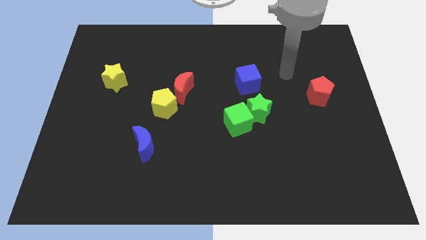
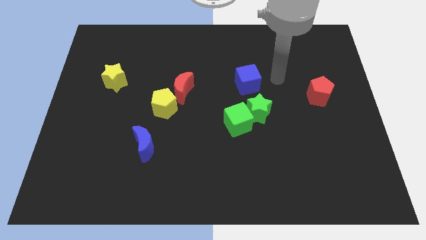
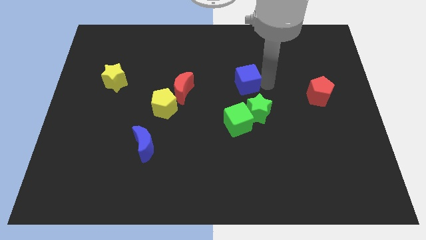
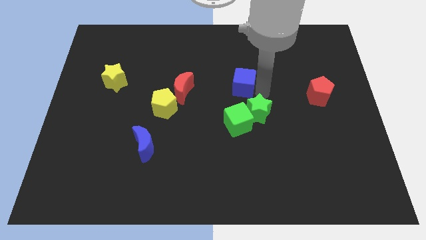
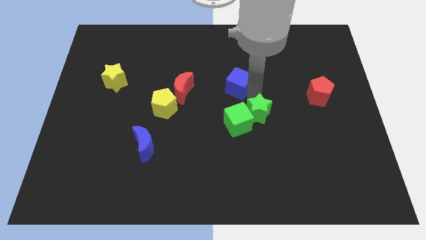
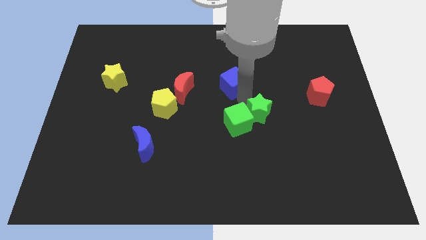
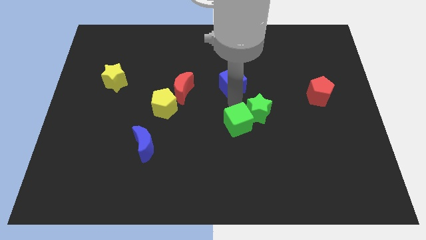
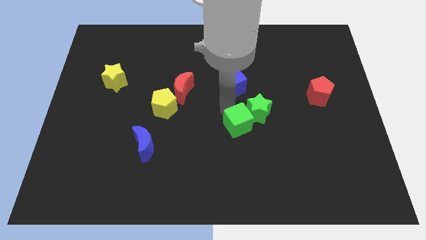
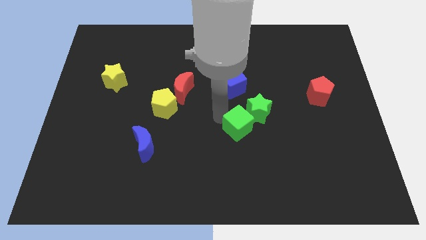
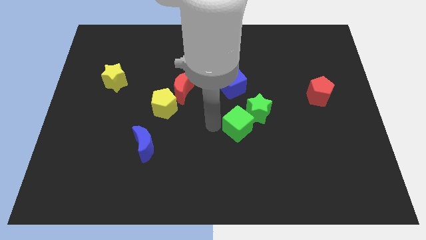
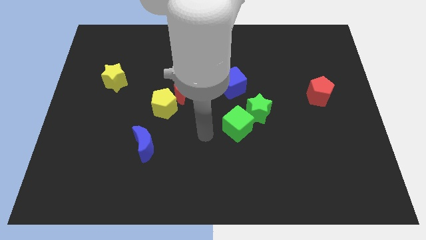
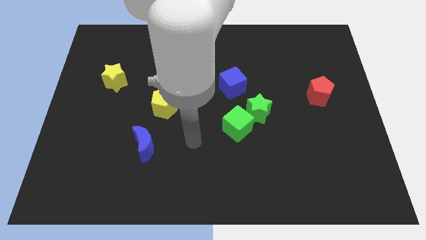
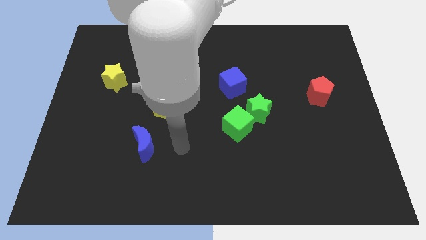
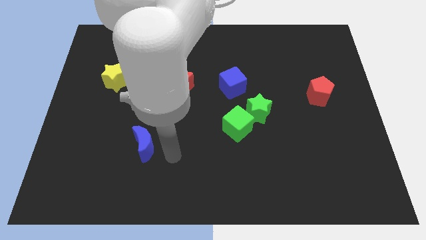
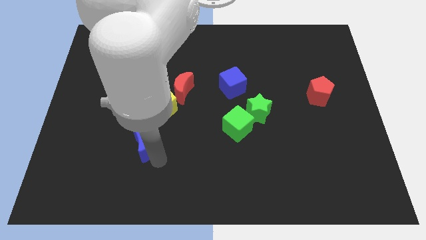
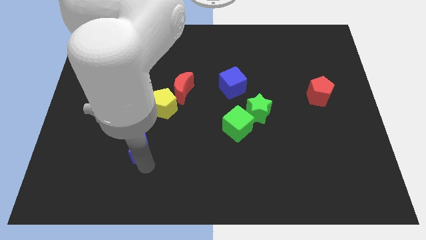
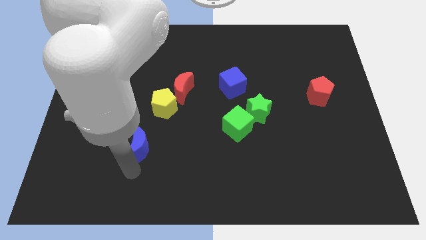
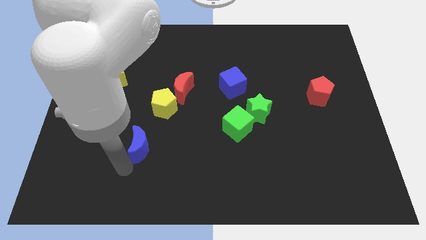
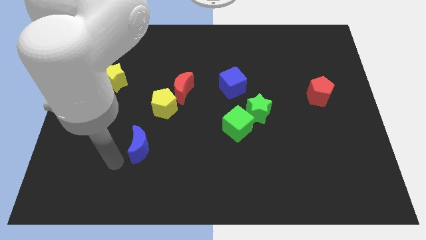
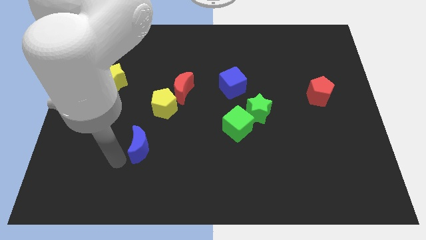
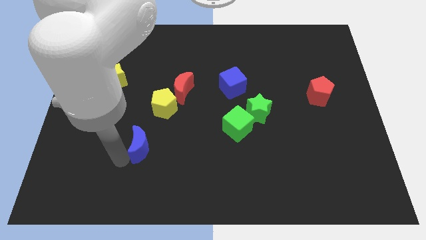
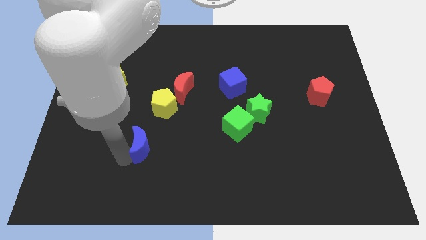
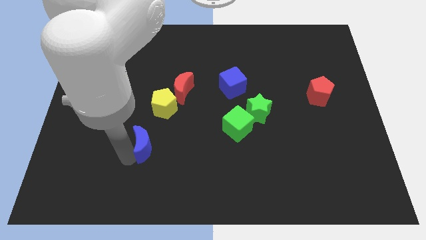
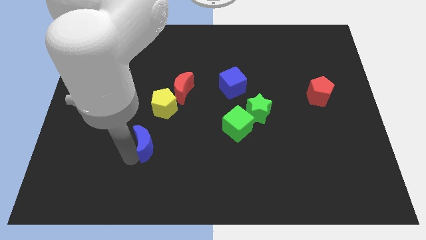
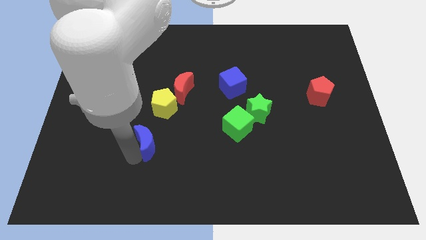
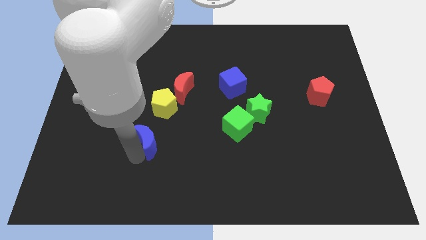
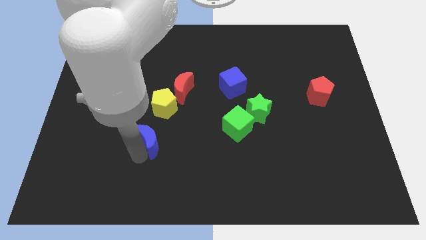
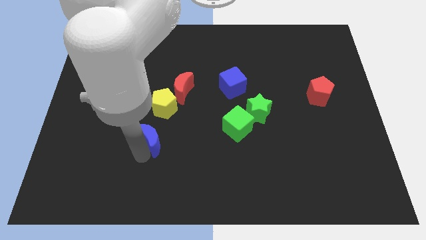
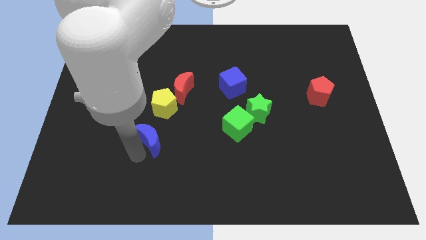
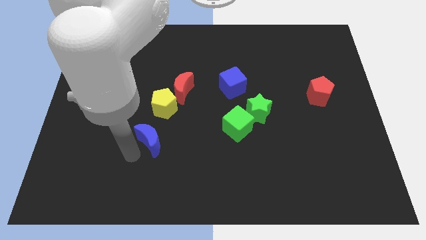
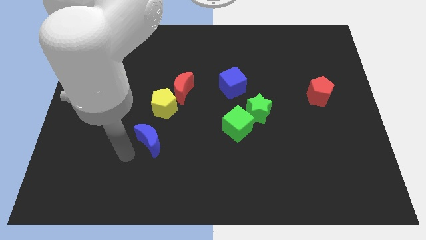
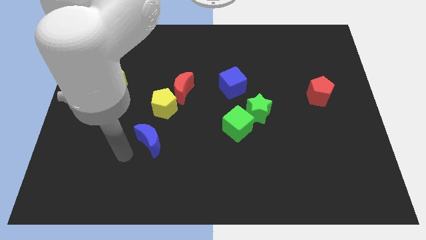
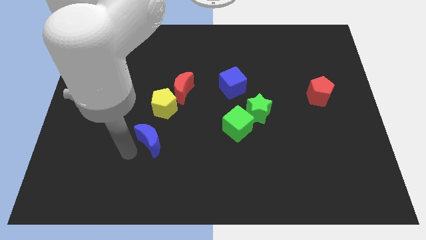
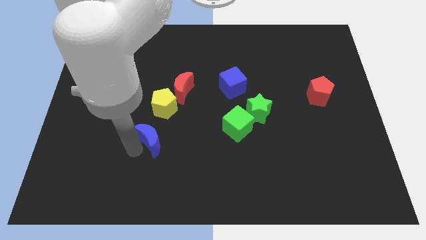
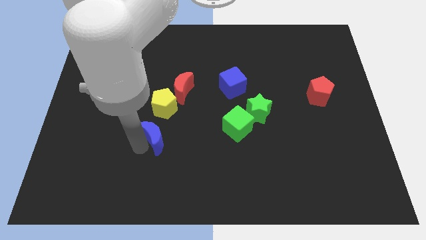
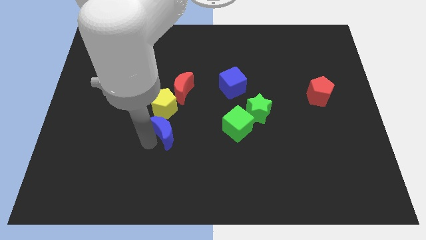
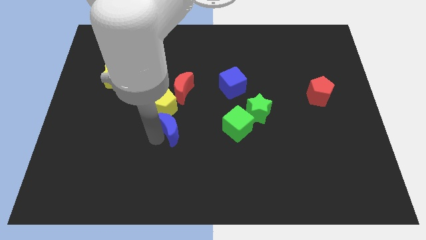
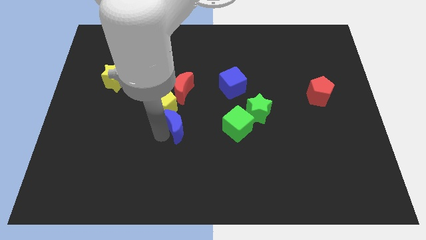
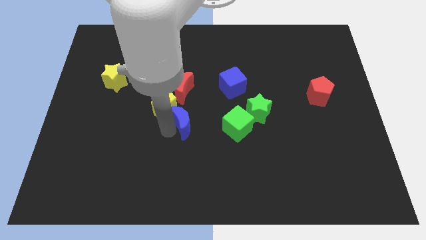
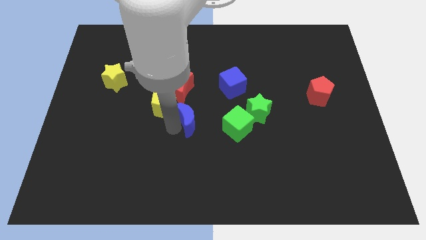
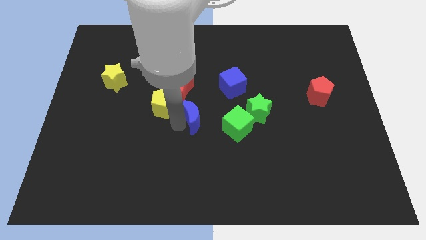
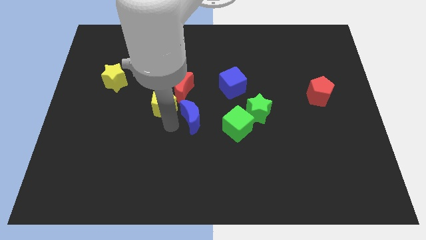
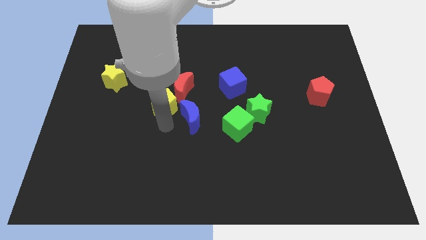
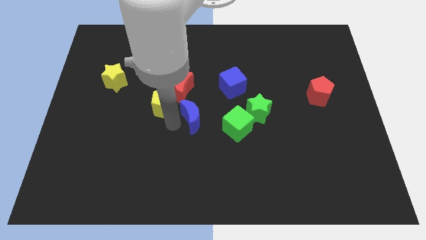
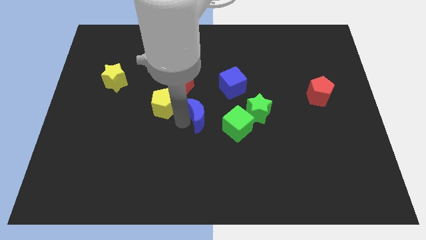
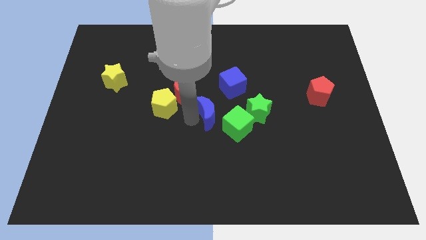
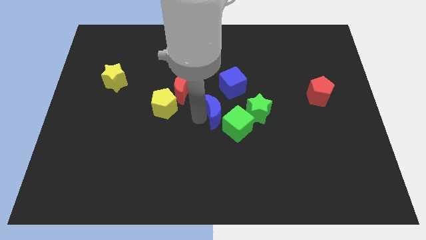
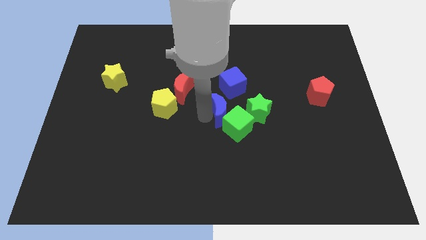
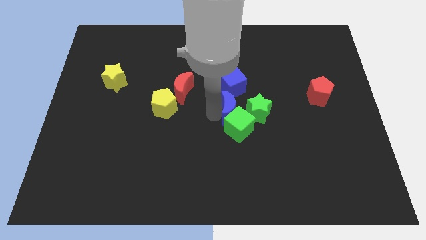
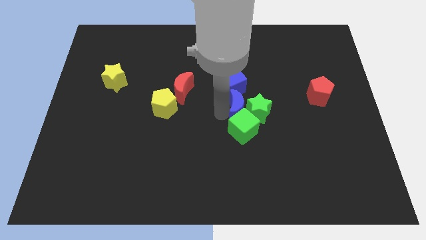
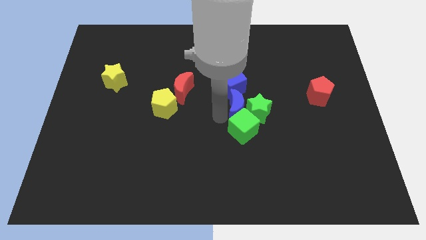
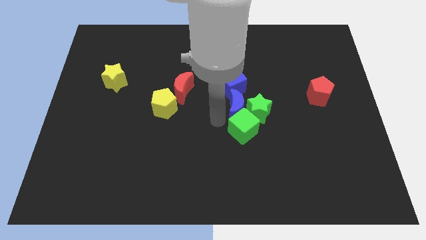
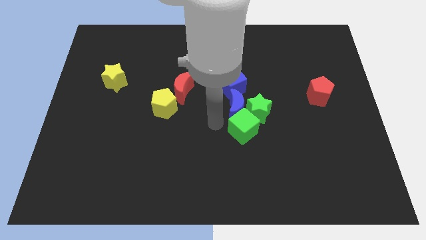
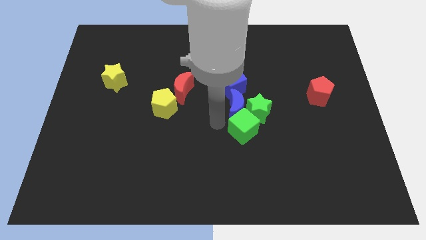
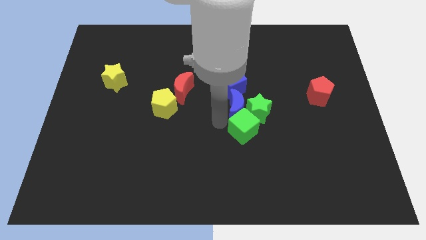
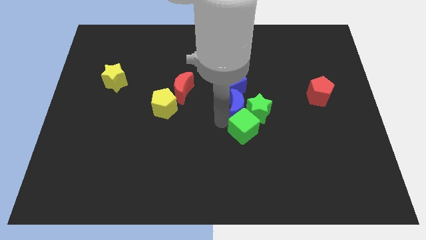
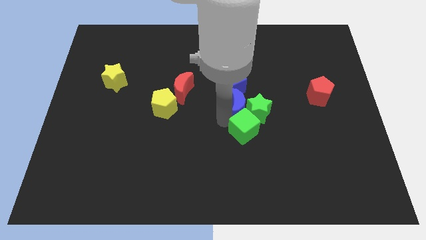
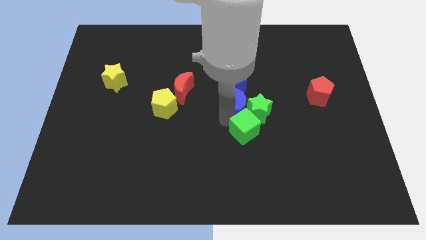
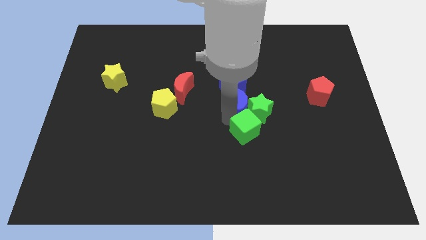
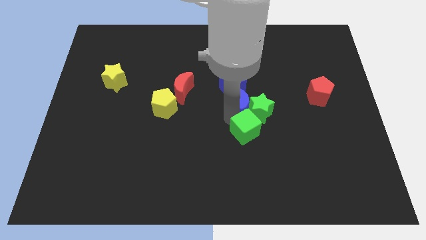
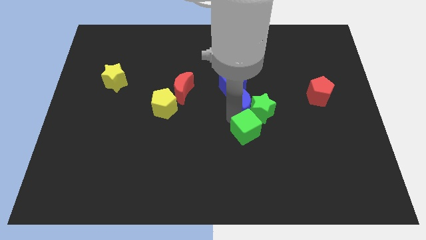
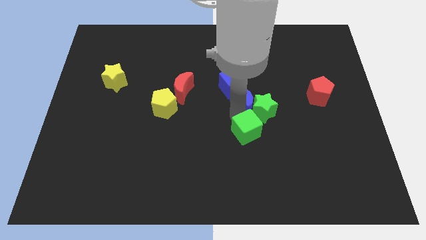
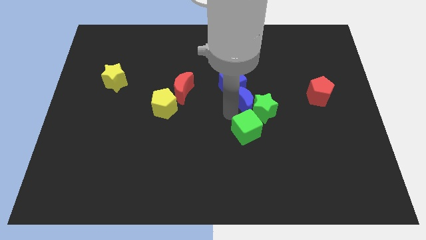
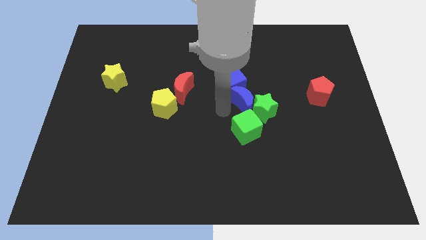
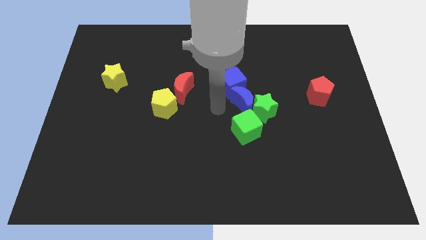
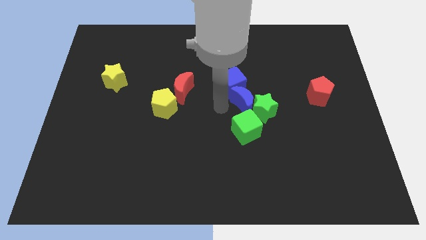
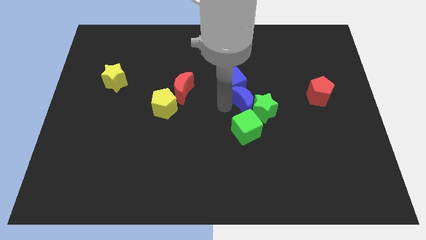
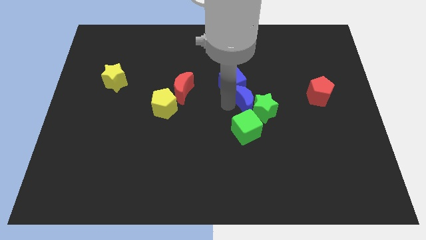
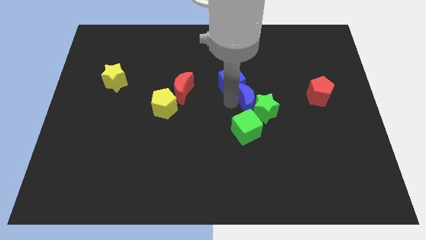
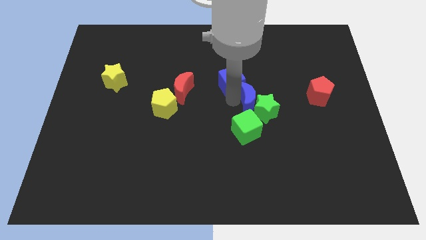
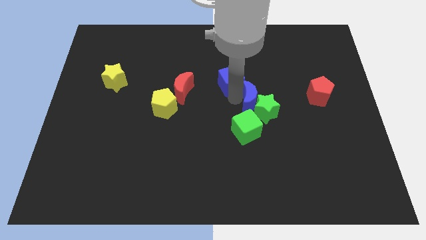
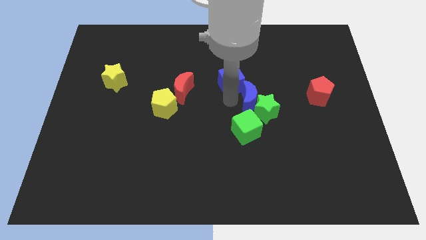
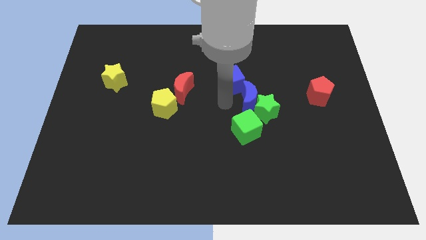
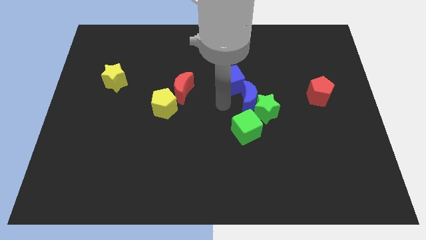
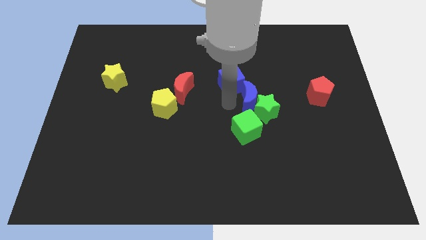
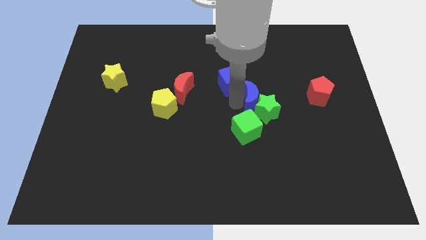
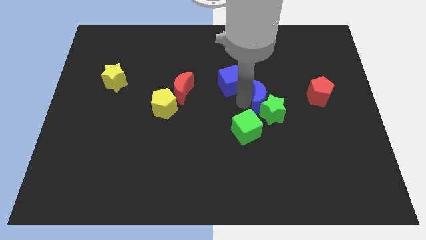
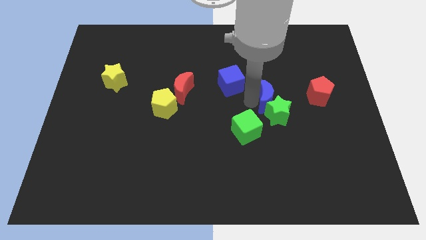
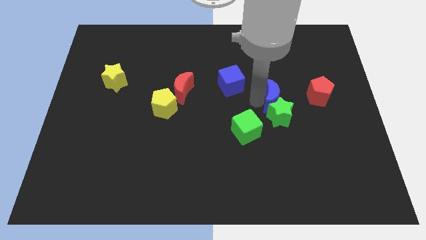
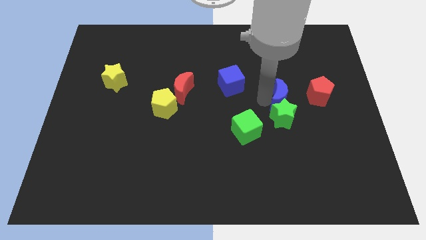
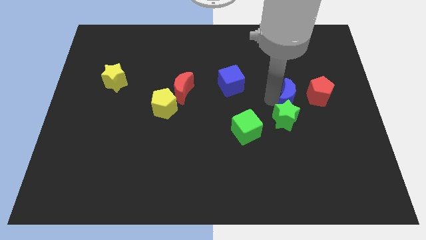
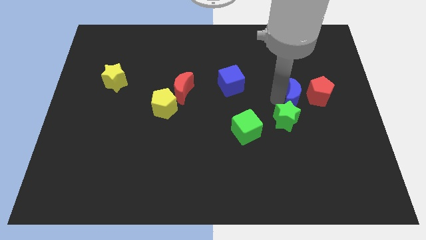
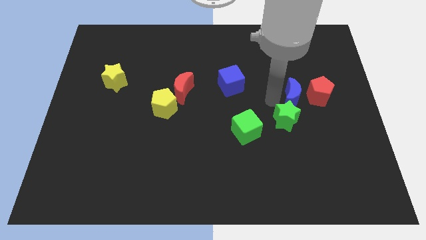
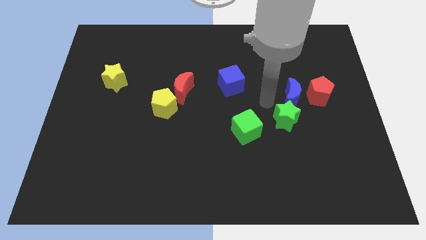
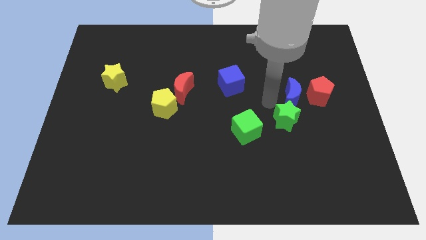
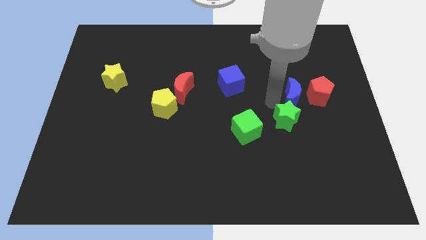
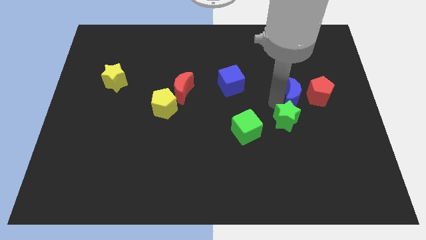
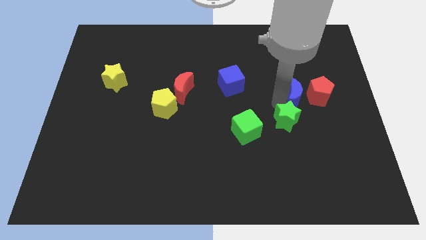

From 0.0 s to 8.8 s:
move the blue moon next to the red pentagon
